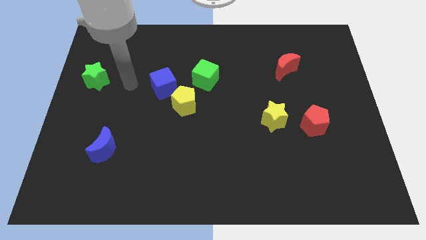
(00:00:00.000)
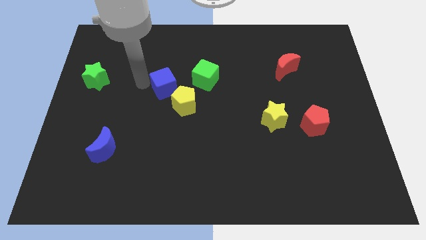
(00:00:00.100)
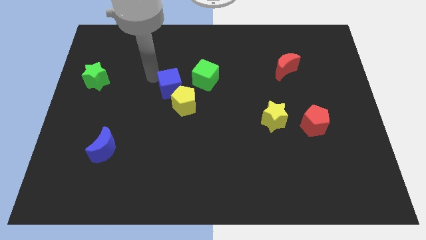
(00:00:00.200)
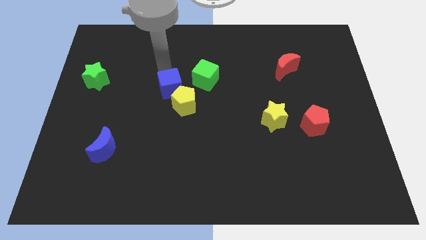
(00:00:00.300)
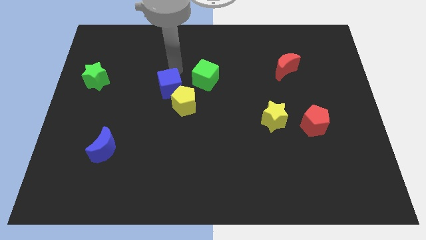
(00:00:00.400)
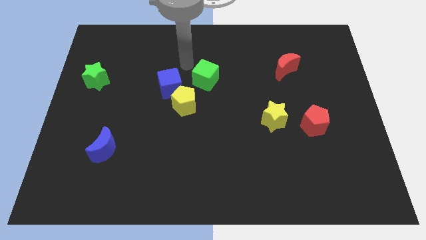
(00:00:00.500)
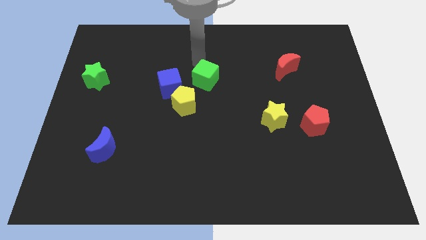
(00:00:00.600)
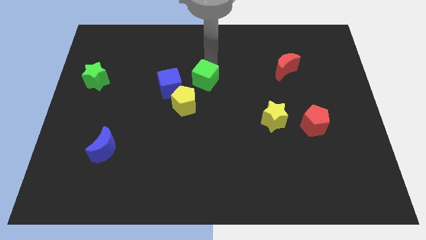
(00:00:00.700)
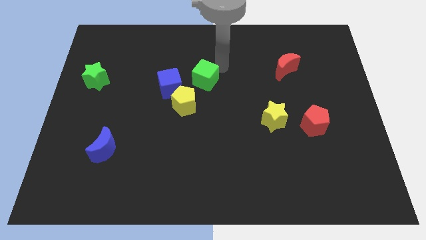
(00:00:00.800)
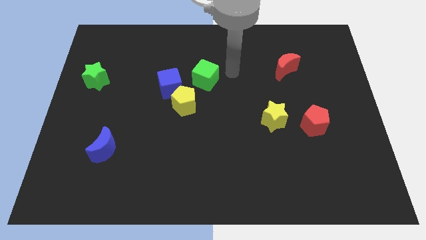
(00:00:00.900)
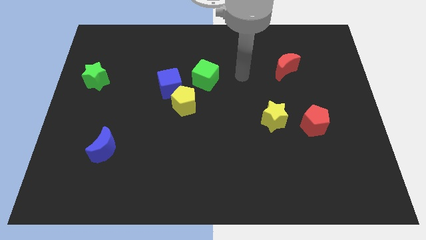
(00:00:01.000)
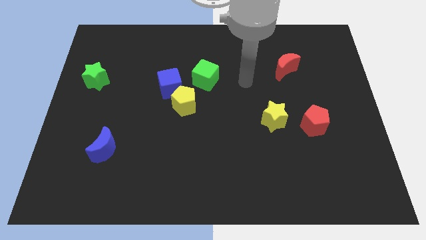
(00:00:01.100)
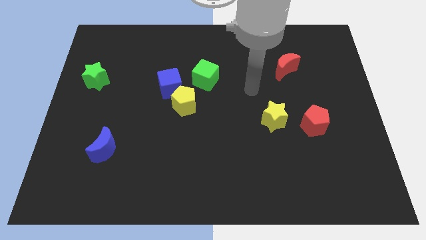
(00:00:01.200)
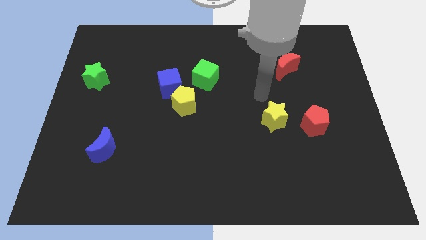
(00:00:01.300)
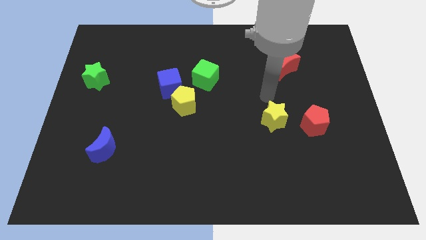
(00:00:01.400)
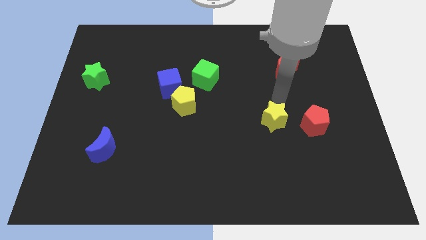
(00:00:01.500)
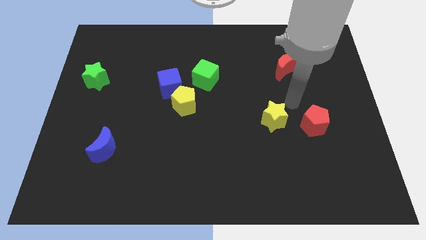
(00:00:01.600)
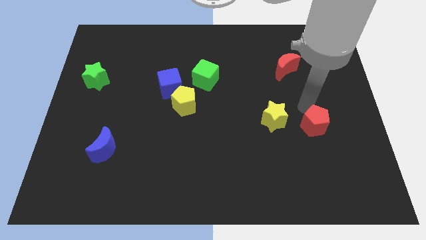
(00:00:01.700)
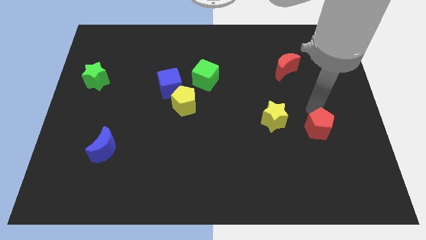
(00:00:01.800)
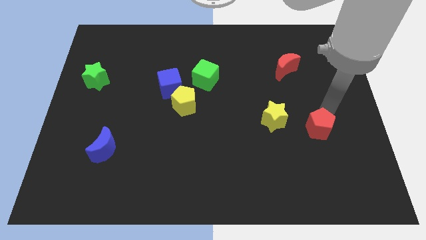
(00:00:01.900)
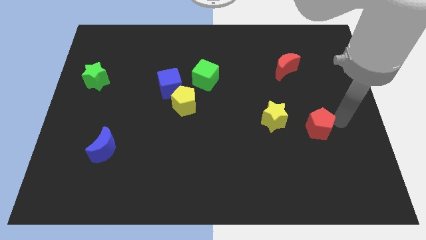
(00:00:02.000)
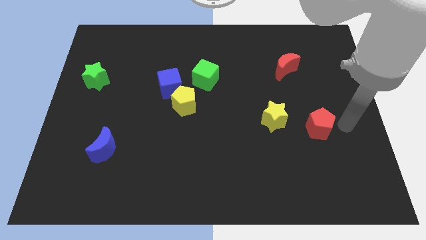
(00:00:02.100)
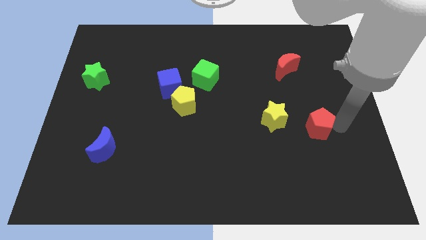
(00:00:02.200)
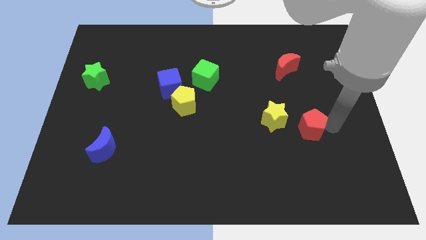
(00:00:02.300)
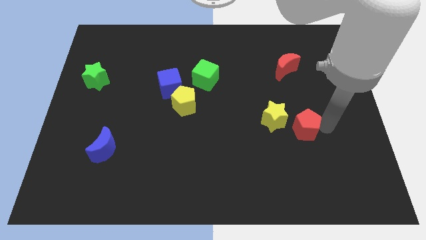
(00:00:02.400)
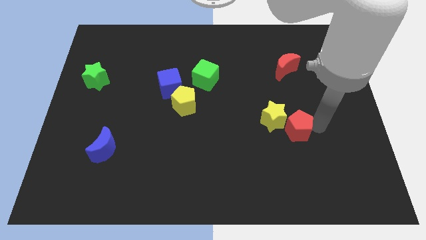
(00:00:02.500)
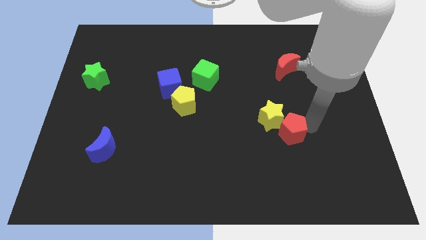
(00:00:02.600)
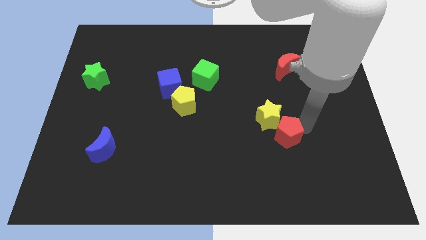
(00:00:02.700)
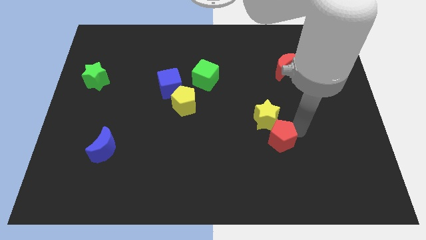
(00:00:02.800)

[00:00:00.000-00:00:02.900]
slightly push the red pentagon left

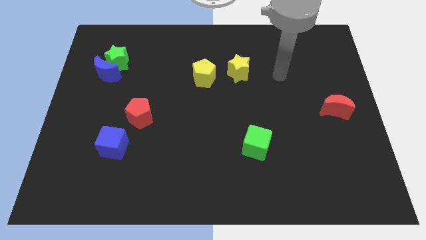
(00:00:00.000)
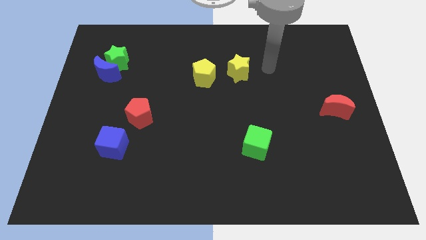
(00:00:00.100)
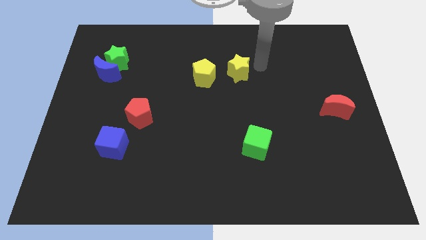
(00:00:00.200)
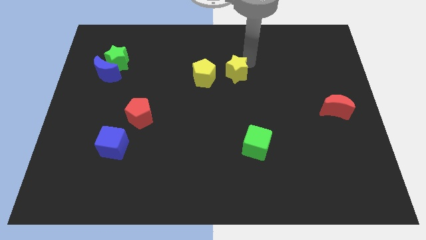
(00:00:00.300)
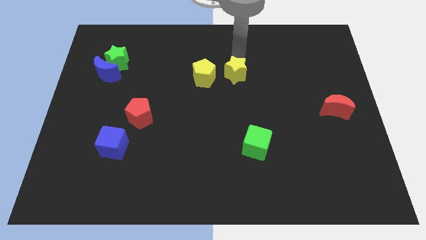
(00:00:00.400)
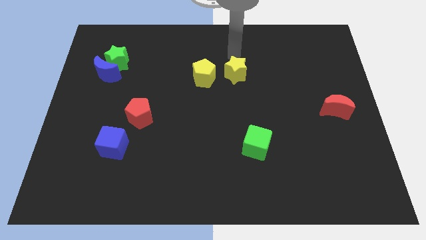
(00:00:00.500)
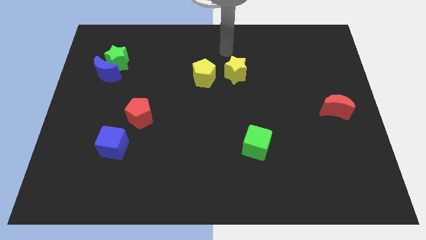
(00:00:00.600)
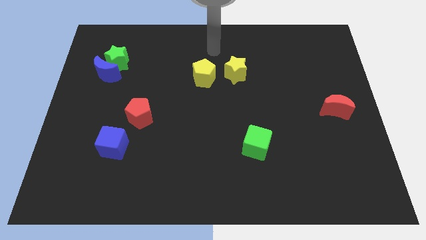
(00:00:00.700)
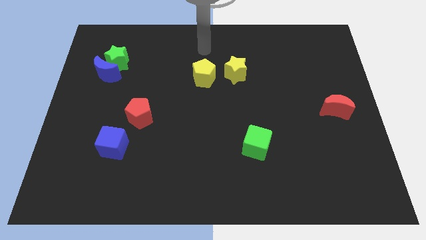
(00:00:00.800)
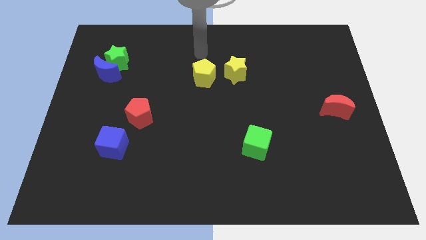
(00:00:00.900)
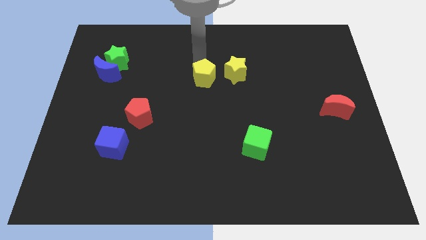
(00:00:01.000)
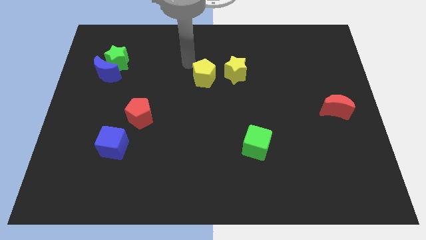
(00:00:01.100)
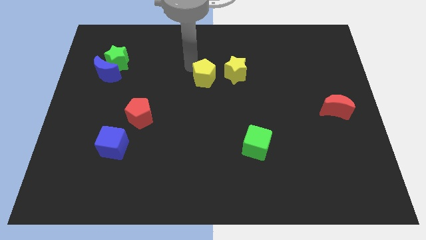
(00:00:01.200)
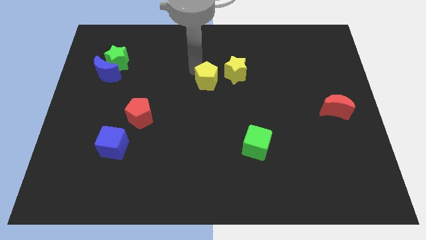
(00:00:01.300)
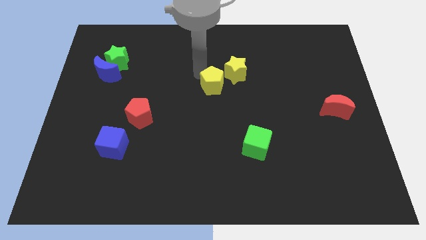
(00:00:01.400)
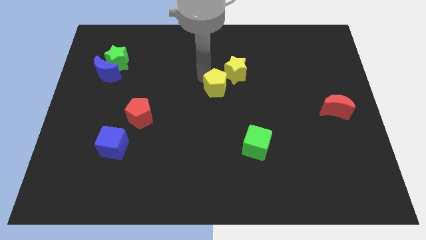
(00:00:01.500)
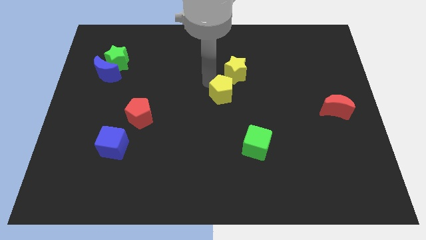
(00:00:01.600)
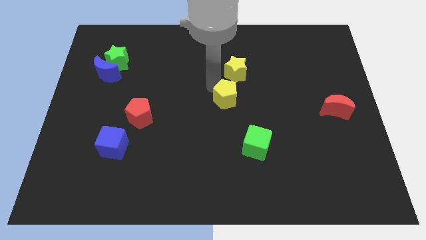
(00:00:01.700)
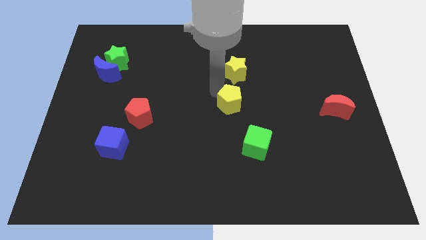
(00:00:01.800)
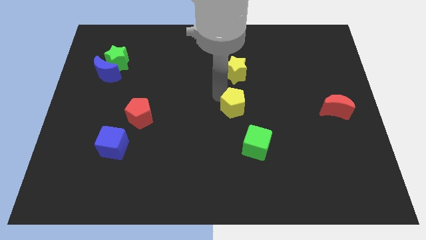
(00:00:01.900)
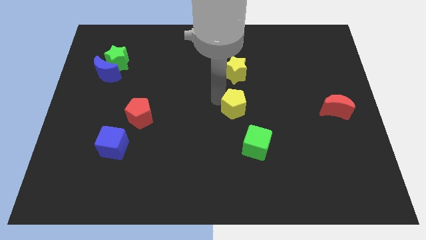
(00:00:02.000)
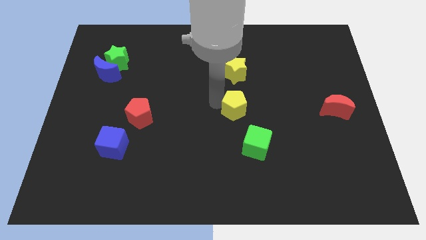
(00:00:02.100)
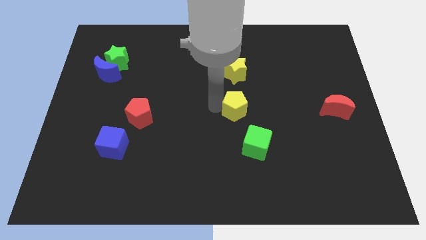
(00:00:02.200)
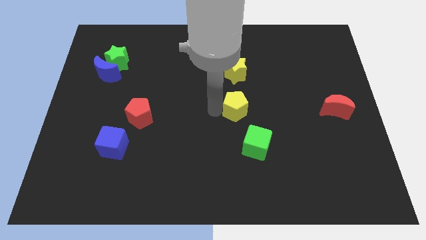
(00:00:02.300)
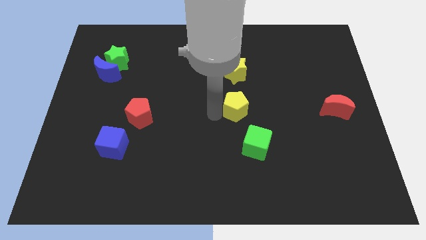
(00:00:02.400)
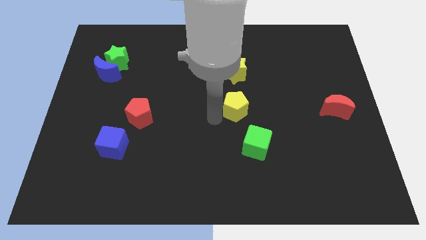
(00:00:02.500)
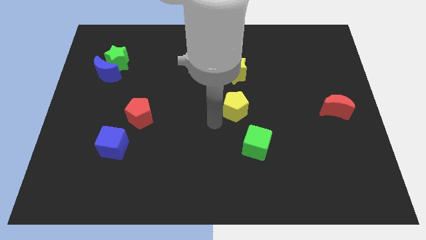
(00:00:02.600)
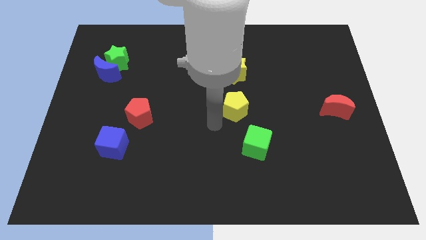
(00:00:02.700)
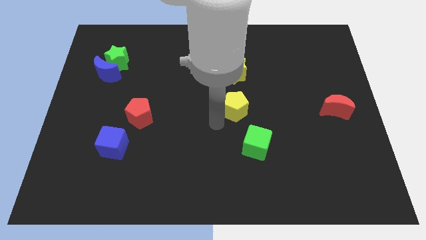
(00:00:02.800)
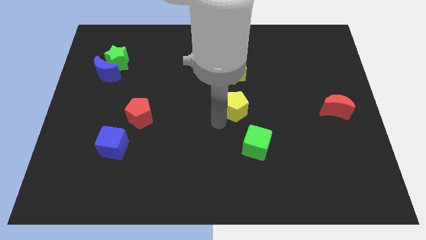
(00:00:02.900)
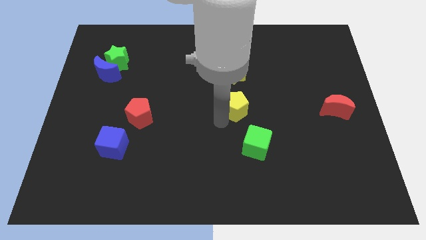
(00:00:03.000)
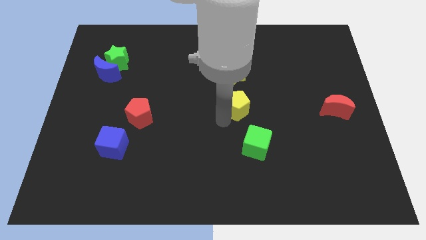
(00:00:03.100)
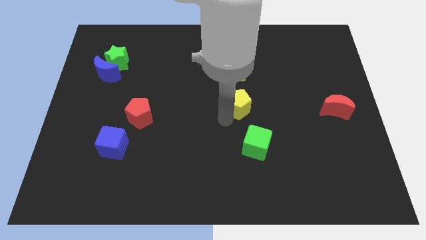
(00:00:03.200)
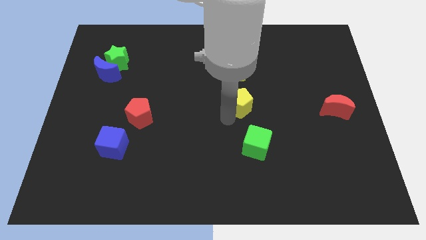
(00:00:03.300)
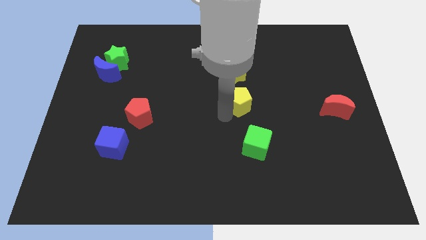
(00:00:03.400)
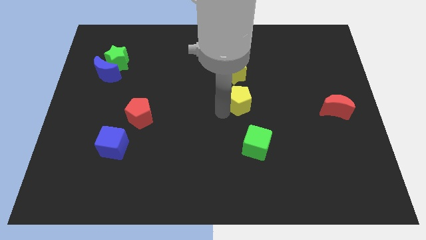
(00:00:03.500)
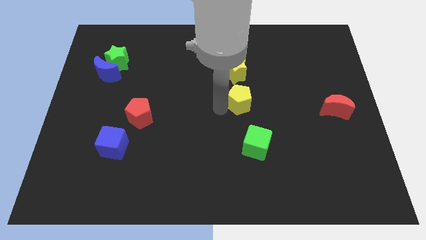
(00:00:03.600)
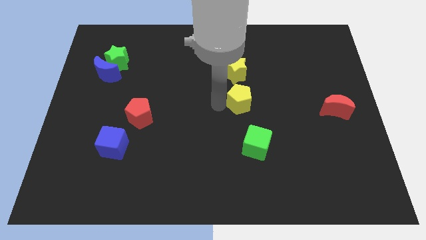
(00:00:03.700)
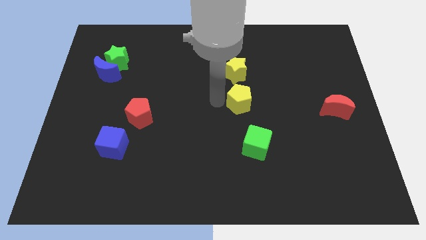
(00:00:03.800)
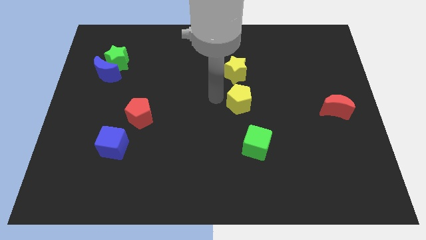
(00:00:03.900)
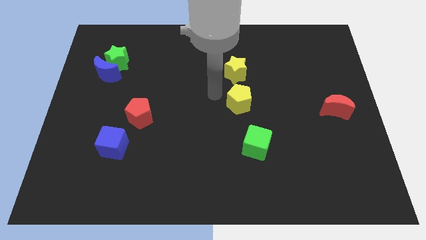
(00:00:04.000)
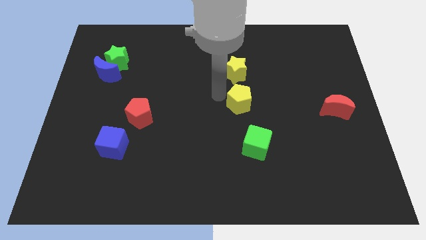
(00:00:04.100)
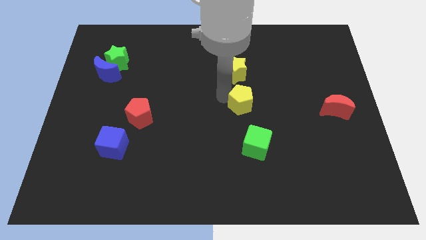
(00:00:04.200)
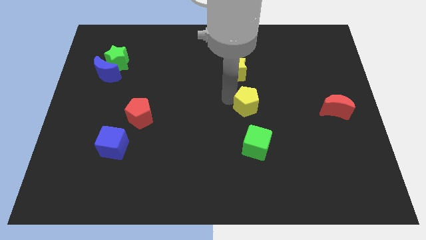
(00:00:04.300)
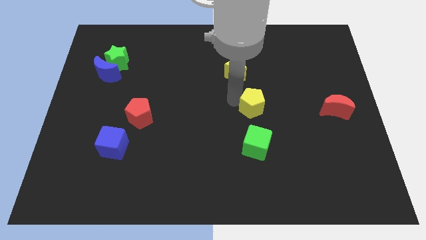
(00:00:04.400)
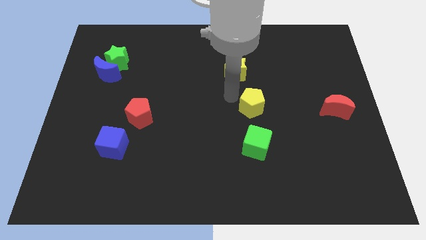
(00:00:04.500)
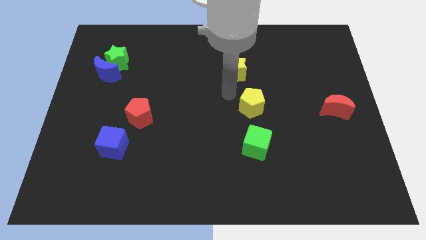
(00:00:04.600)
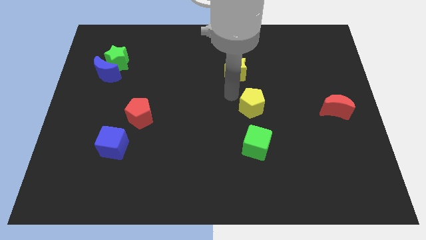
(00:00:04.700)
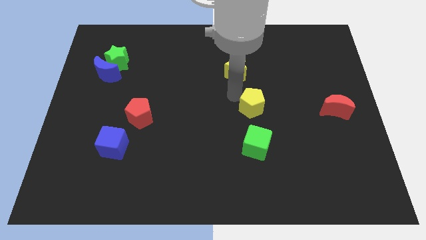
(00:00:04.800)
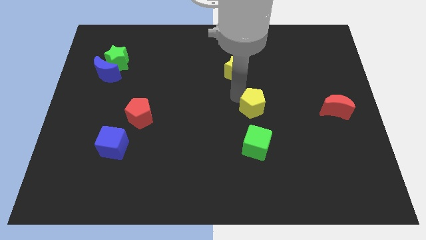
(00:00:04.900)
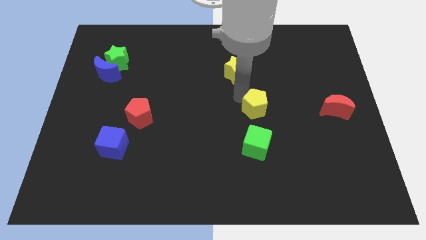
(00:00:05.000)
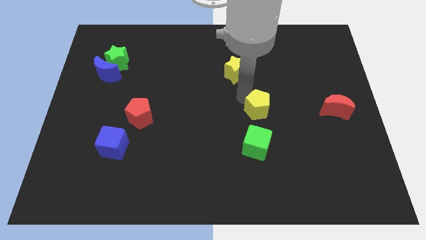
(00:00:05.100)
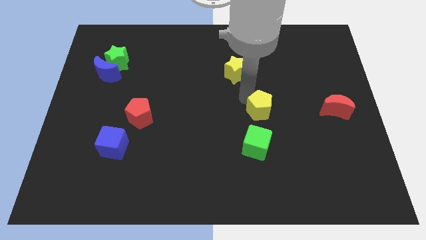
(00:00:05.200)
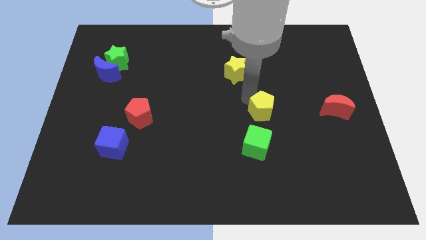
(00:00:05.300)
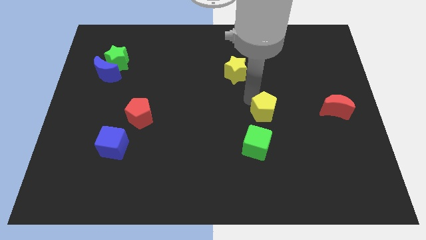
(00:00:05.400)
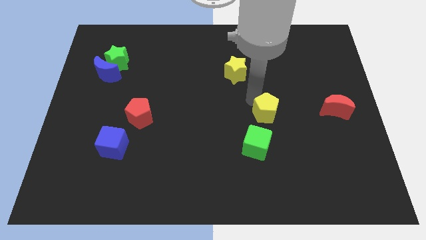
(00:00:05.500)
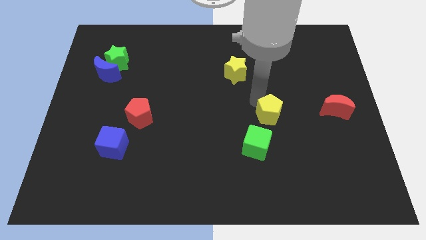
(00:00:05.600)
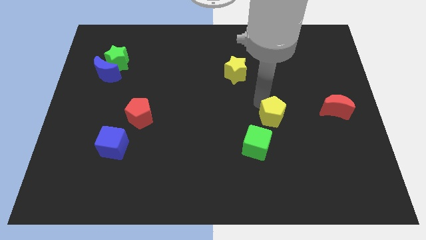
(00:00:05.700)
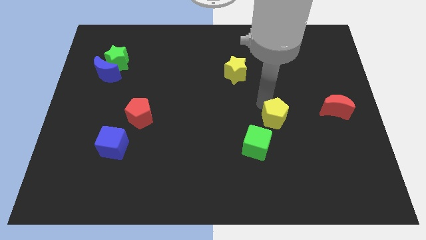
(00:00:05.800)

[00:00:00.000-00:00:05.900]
slide the yellow pentagon diagonally downwards and to the right
